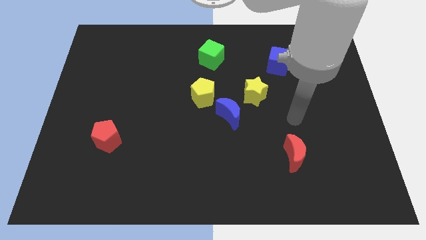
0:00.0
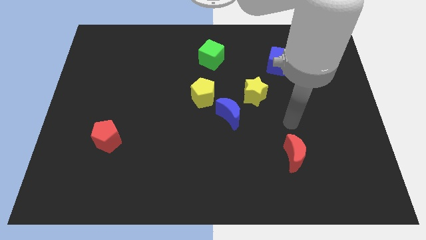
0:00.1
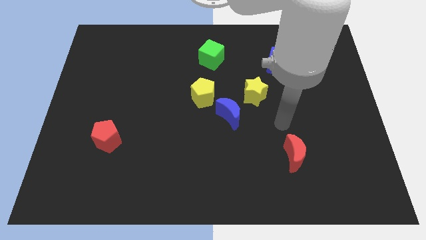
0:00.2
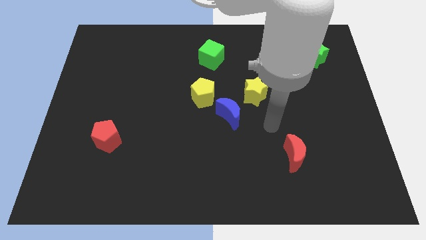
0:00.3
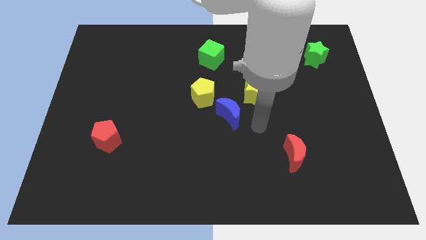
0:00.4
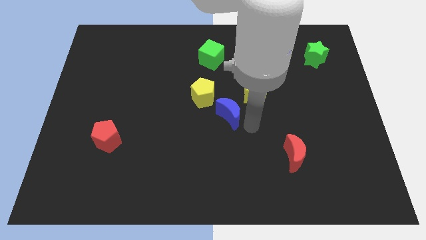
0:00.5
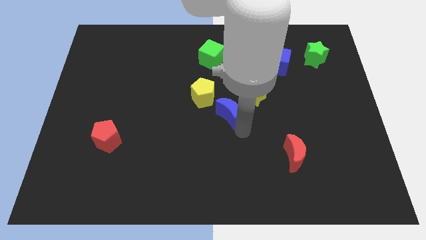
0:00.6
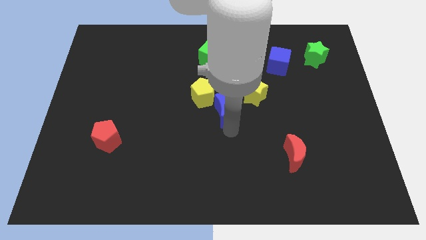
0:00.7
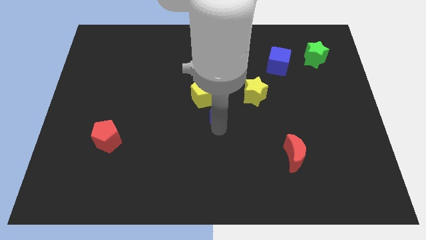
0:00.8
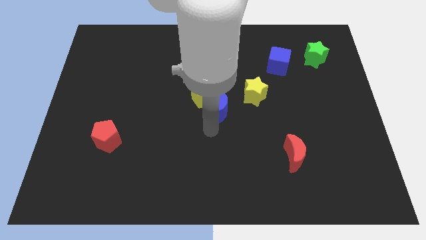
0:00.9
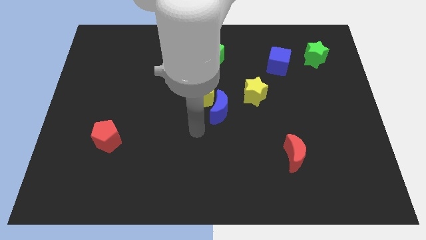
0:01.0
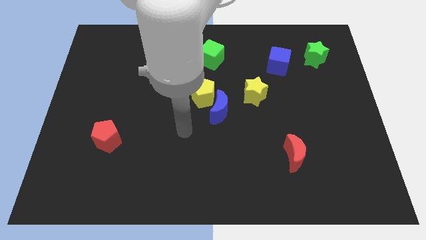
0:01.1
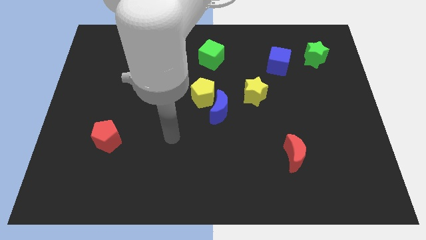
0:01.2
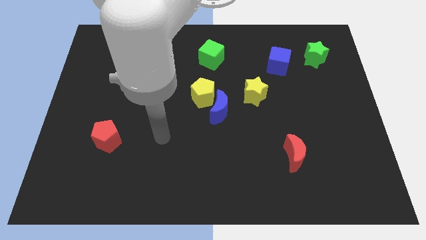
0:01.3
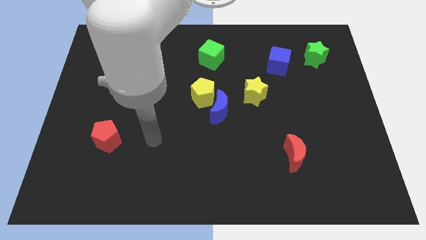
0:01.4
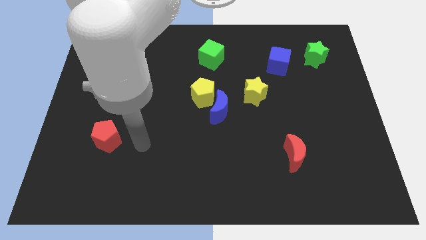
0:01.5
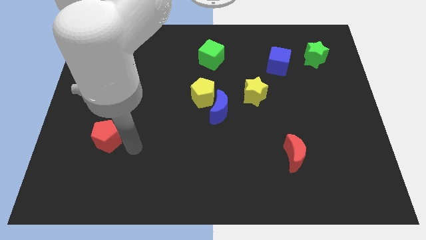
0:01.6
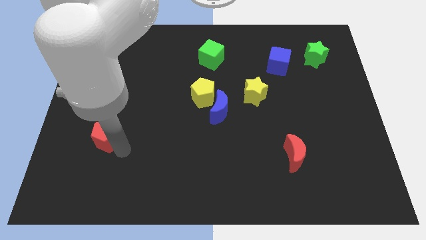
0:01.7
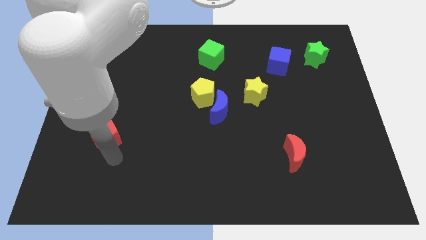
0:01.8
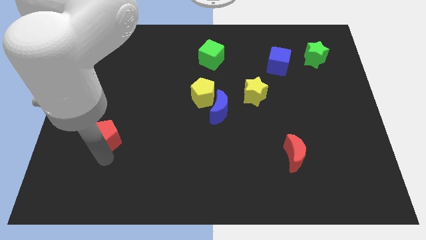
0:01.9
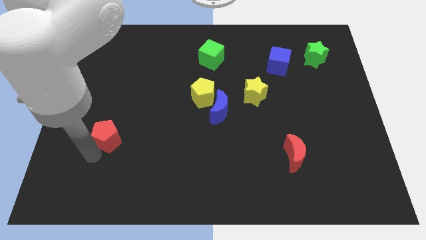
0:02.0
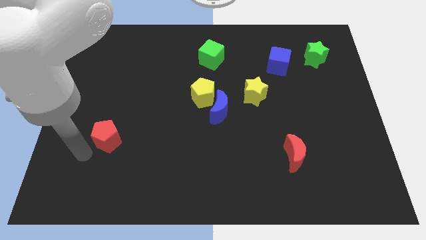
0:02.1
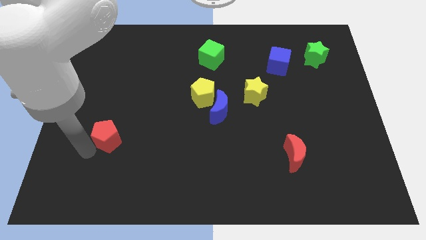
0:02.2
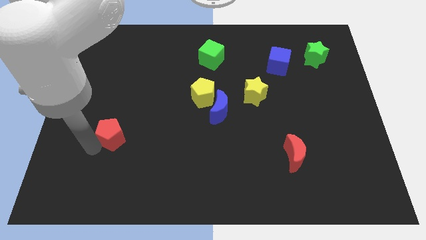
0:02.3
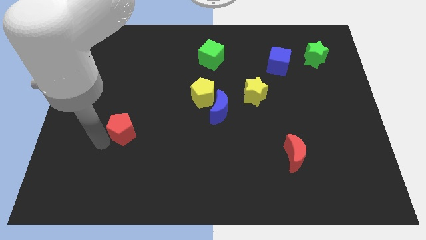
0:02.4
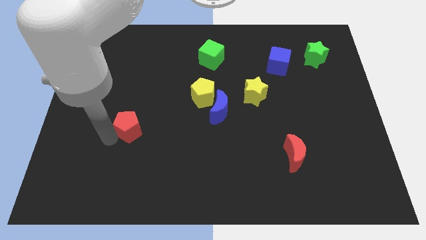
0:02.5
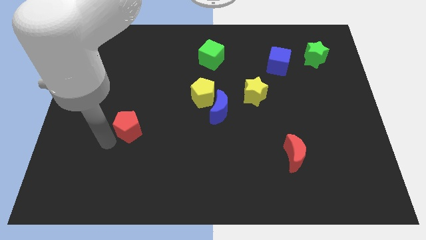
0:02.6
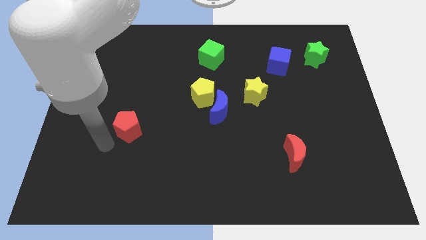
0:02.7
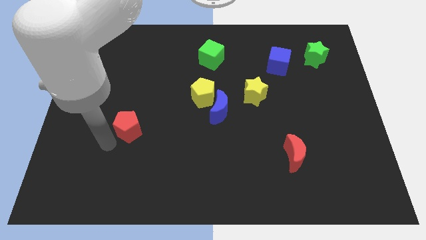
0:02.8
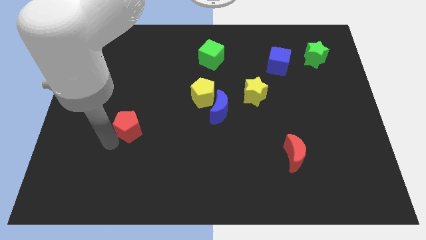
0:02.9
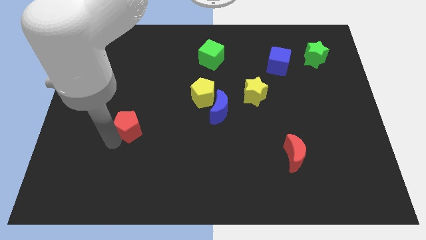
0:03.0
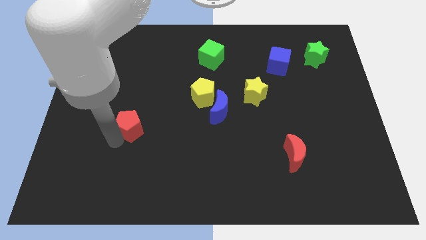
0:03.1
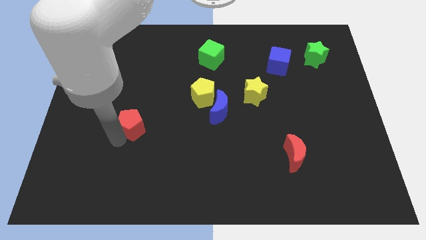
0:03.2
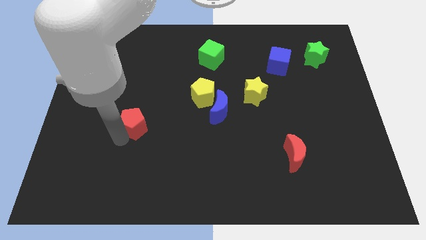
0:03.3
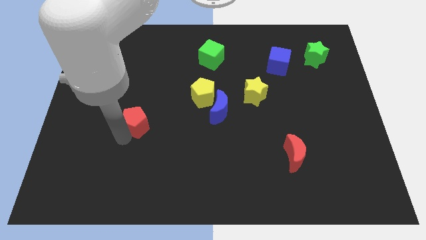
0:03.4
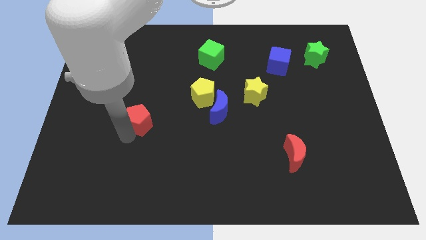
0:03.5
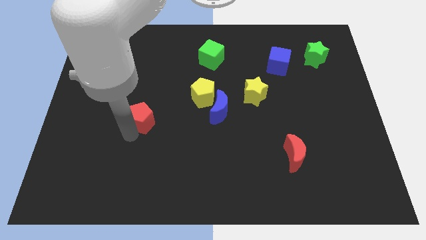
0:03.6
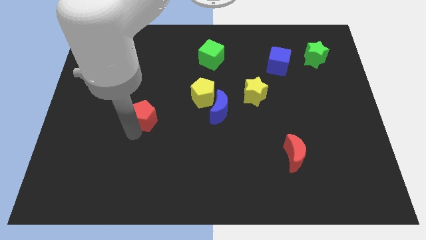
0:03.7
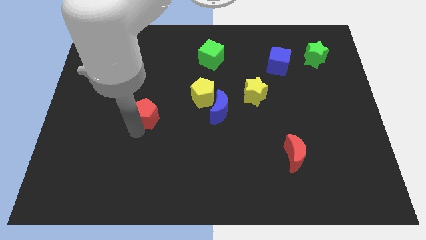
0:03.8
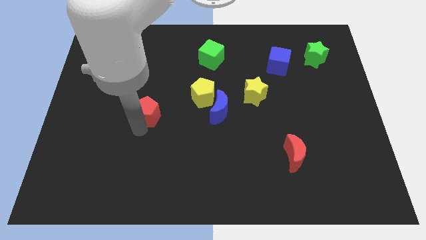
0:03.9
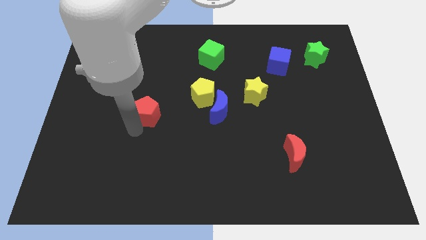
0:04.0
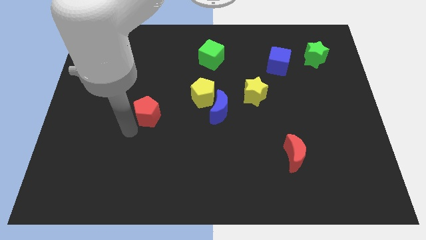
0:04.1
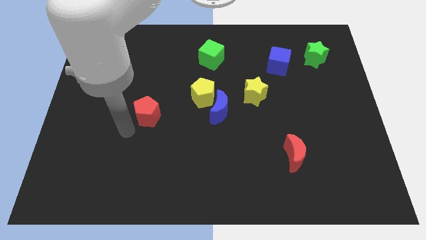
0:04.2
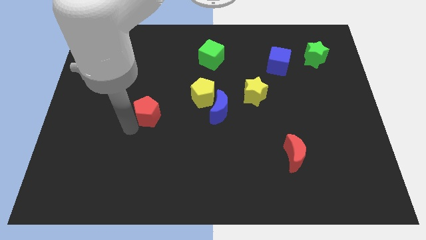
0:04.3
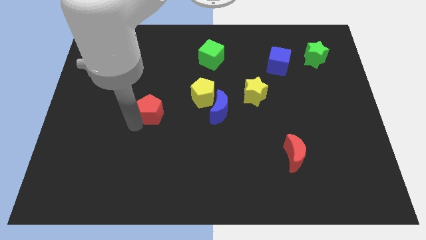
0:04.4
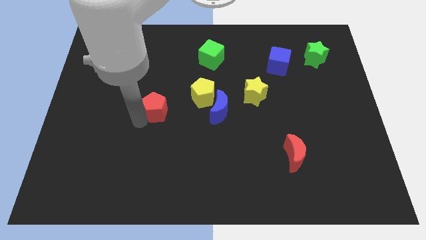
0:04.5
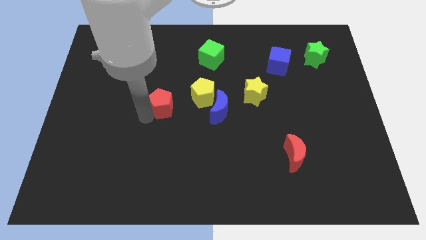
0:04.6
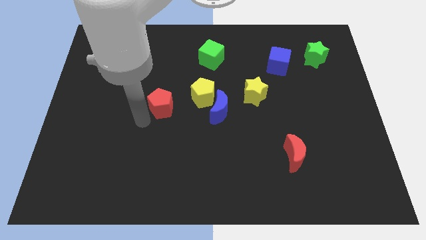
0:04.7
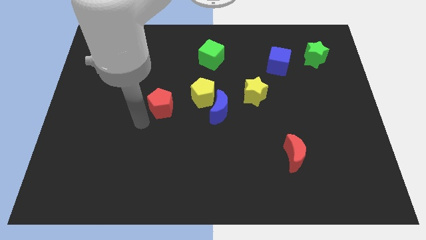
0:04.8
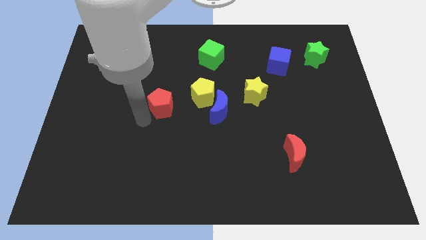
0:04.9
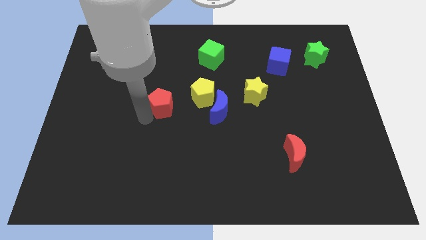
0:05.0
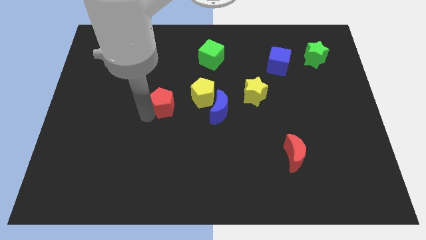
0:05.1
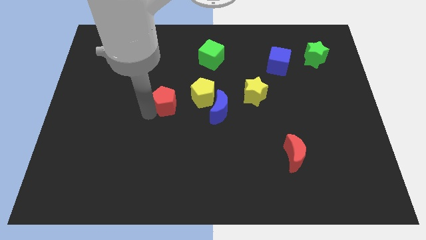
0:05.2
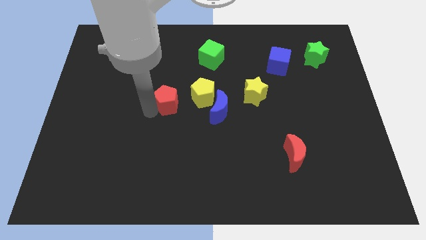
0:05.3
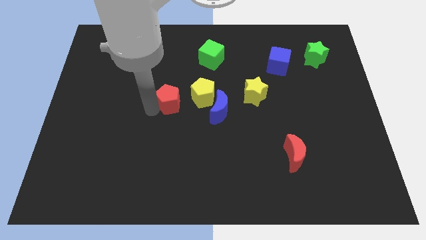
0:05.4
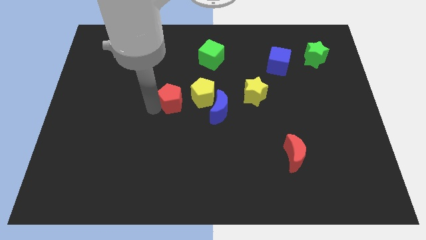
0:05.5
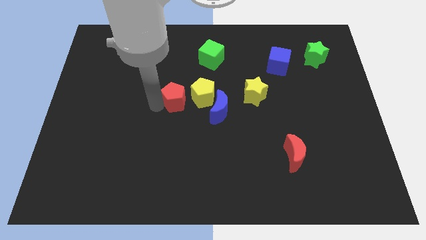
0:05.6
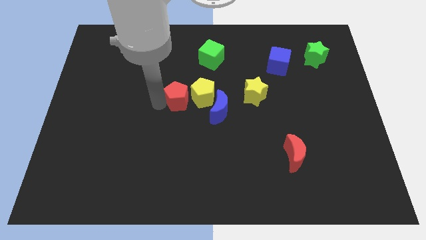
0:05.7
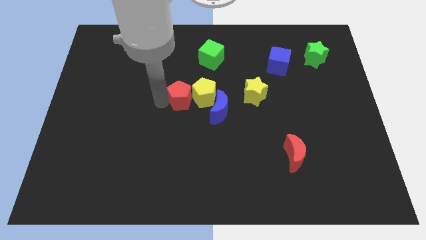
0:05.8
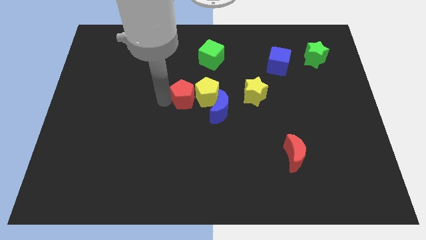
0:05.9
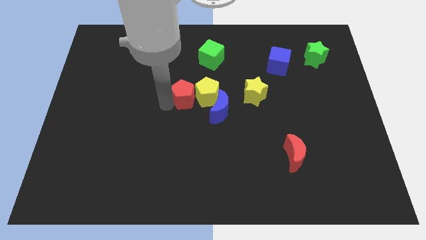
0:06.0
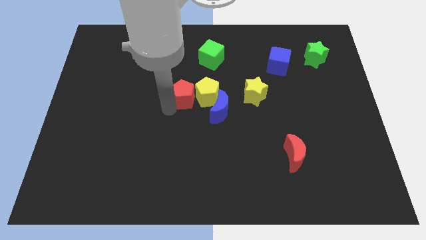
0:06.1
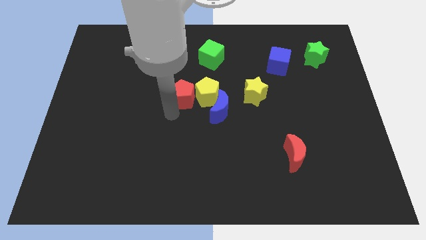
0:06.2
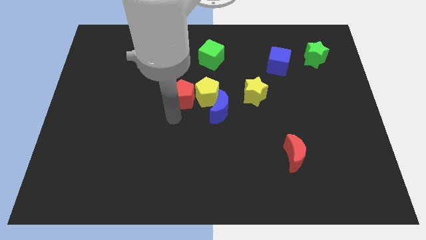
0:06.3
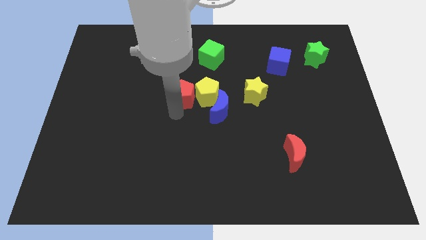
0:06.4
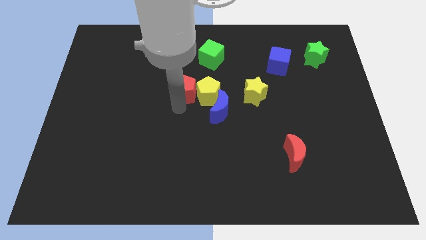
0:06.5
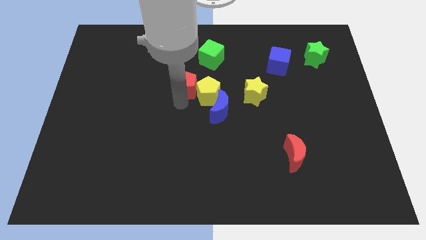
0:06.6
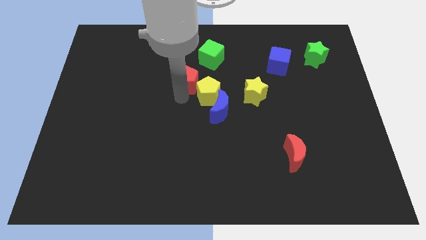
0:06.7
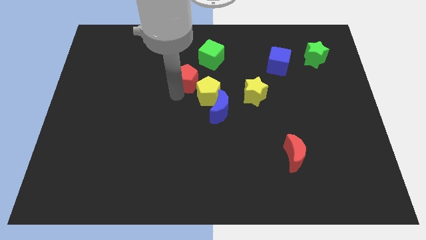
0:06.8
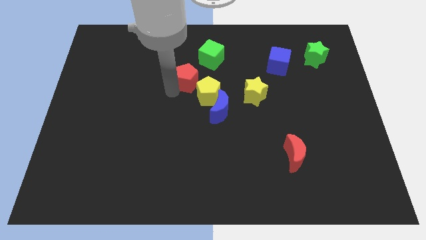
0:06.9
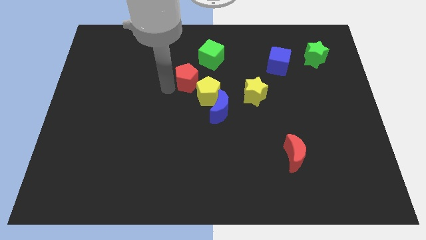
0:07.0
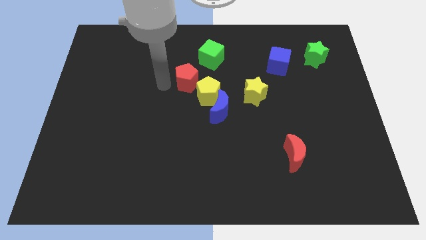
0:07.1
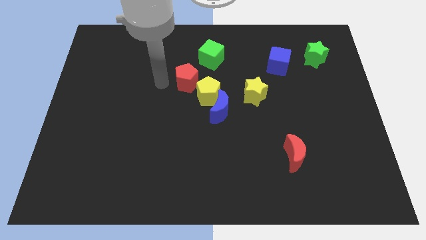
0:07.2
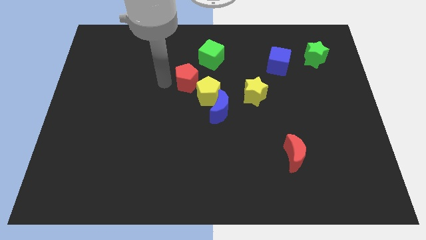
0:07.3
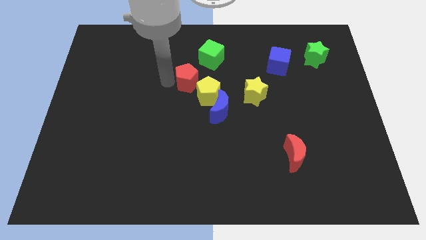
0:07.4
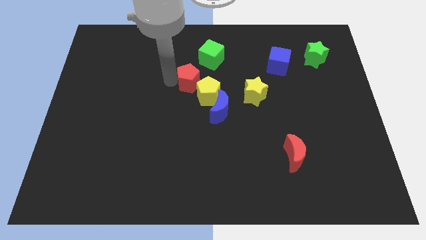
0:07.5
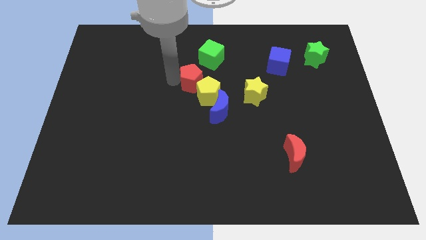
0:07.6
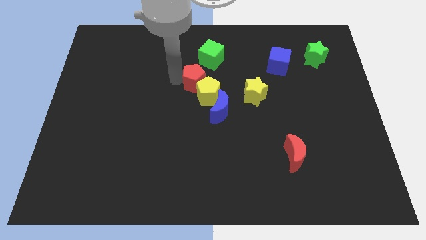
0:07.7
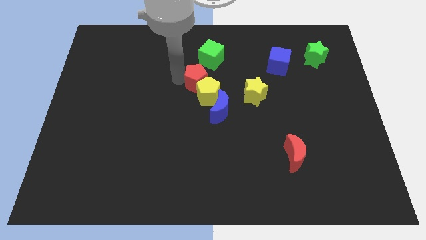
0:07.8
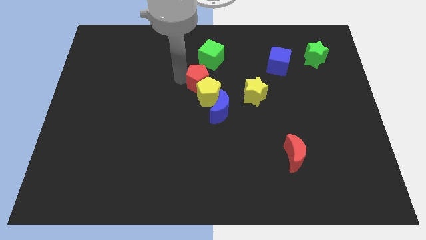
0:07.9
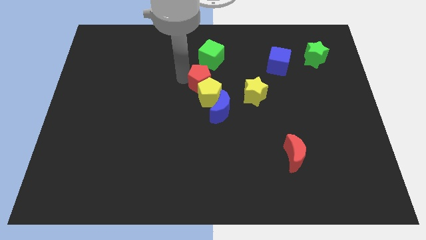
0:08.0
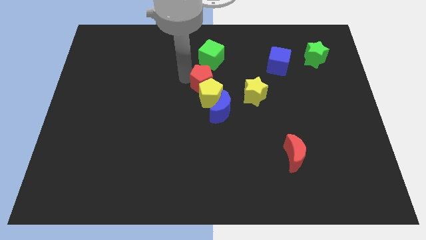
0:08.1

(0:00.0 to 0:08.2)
move the red pentagon to the top of the blue moon
